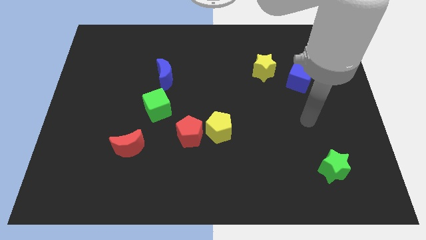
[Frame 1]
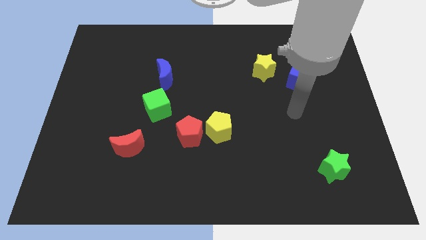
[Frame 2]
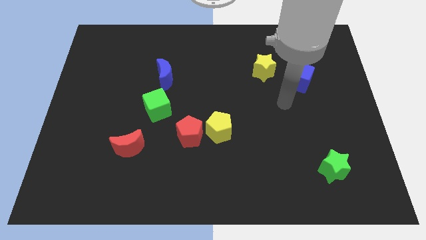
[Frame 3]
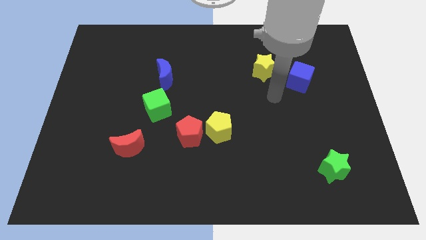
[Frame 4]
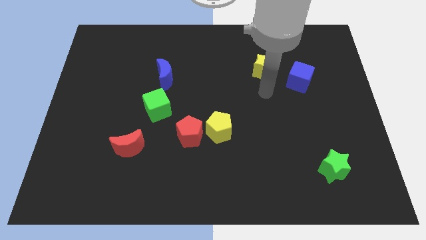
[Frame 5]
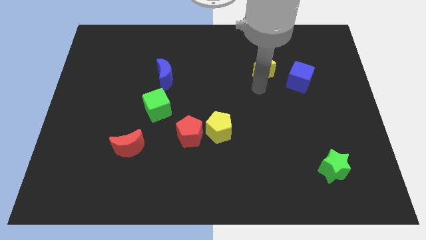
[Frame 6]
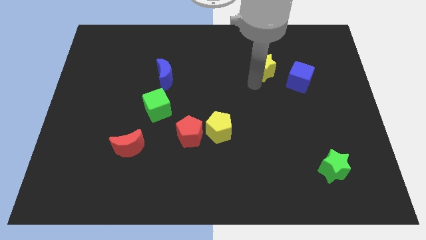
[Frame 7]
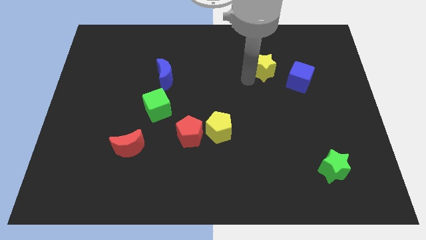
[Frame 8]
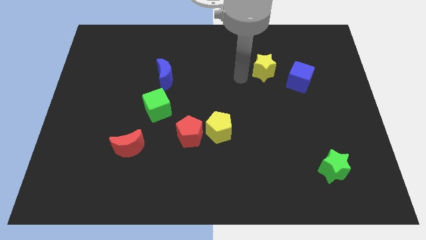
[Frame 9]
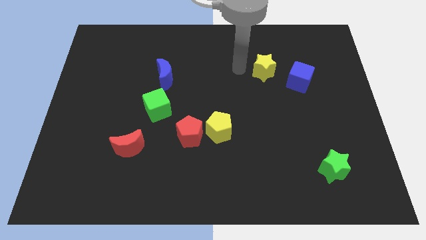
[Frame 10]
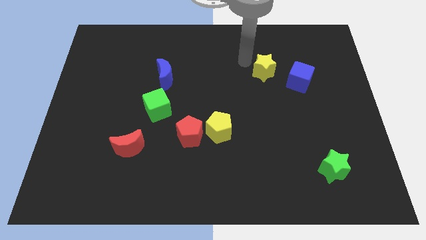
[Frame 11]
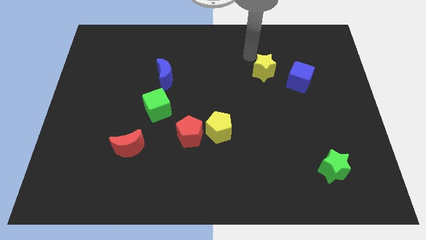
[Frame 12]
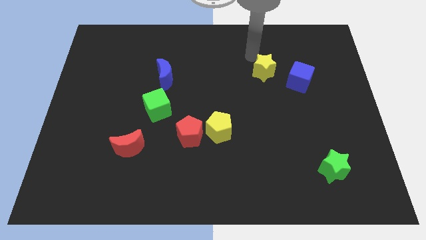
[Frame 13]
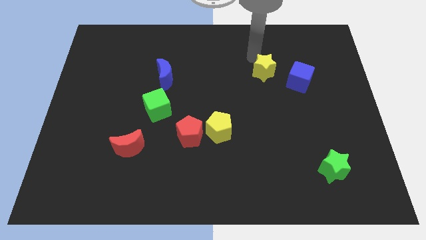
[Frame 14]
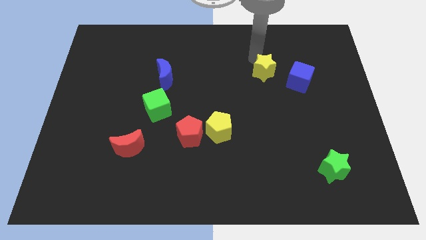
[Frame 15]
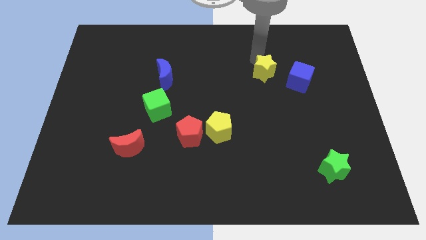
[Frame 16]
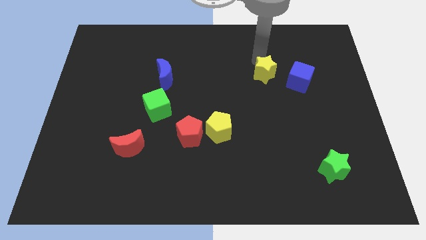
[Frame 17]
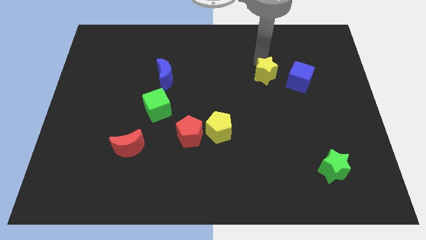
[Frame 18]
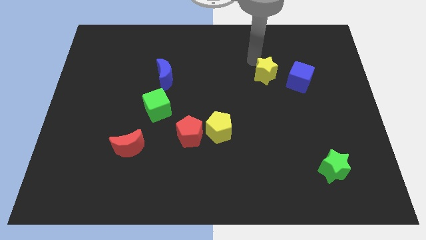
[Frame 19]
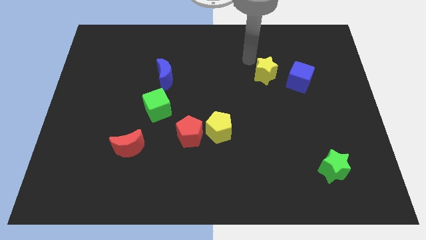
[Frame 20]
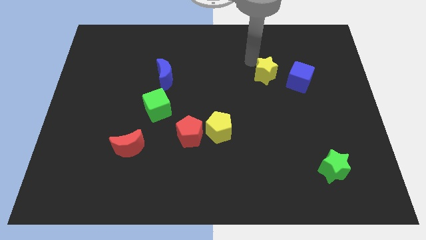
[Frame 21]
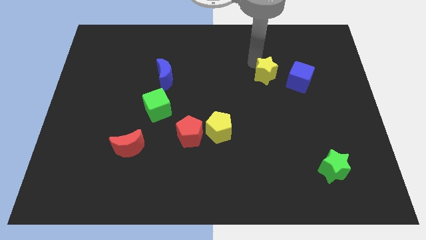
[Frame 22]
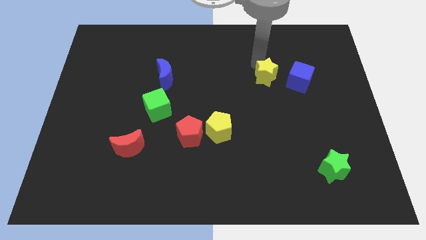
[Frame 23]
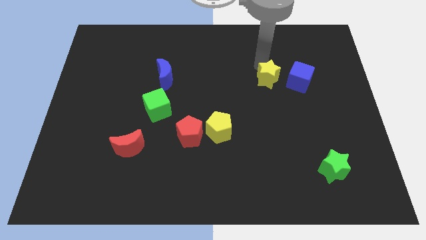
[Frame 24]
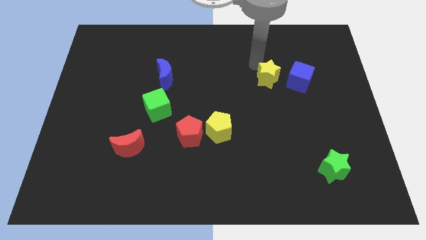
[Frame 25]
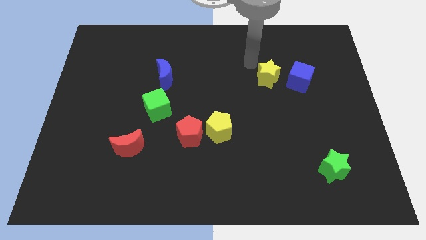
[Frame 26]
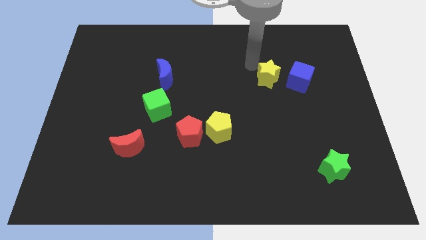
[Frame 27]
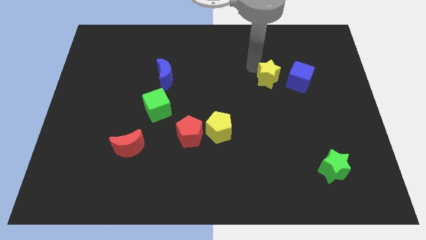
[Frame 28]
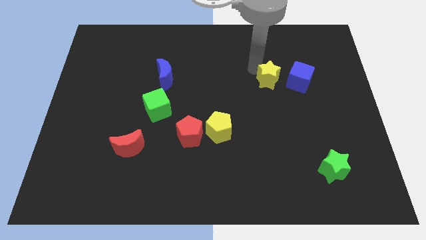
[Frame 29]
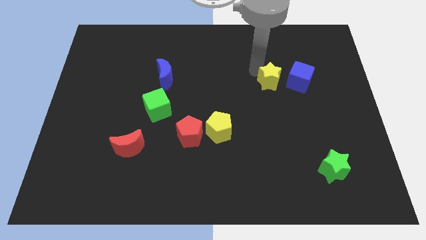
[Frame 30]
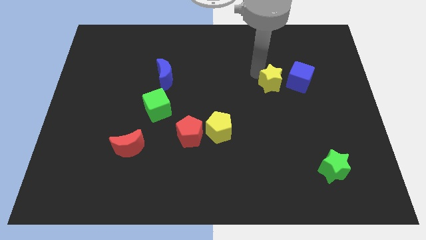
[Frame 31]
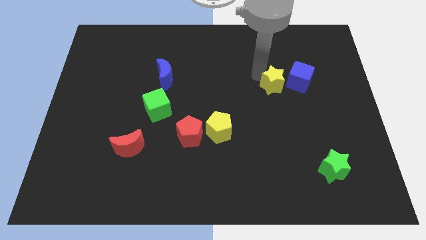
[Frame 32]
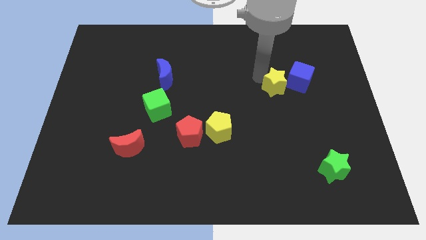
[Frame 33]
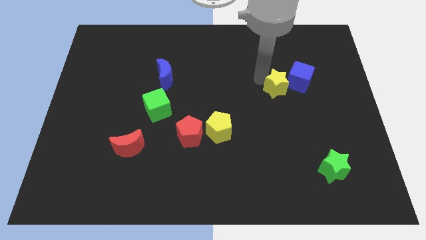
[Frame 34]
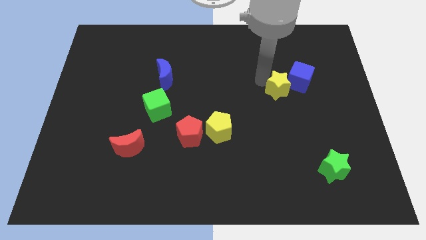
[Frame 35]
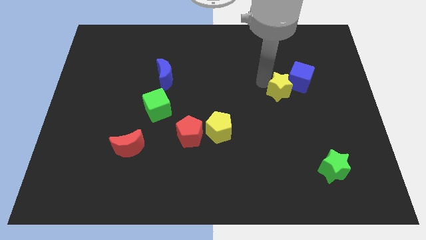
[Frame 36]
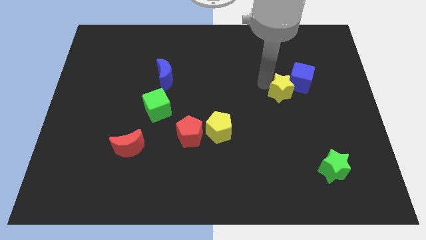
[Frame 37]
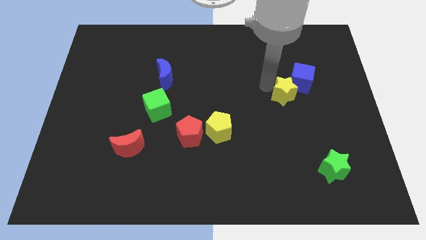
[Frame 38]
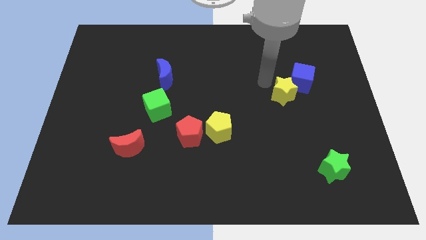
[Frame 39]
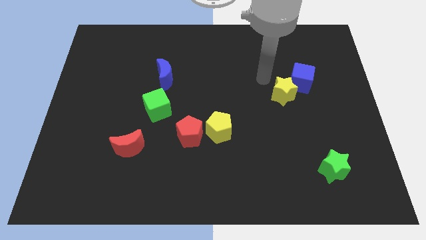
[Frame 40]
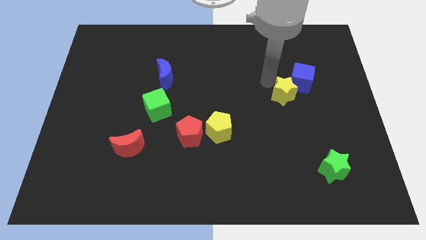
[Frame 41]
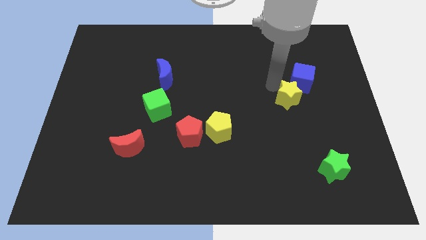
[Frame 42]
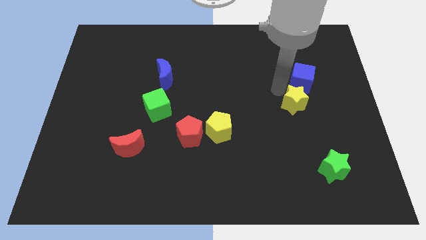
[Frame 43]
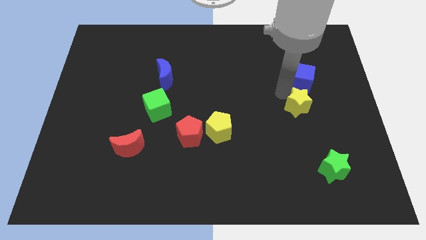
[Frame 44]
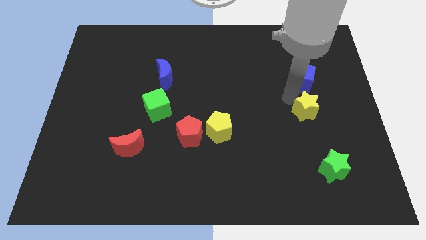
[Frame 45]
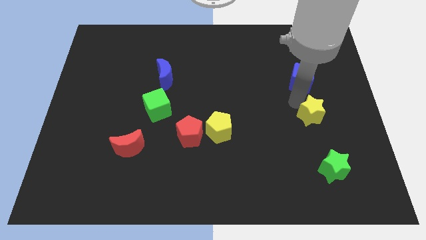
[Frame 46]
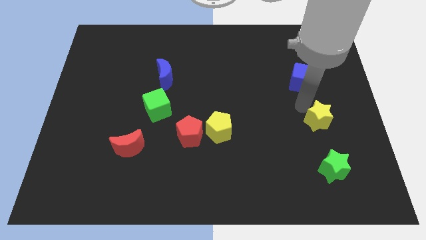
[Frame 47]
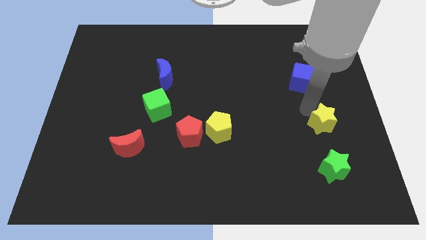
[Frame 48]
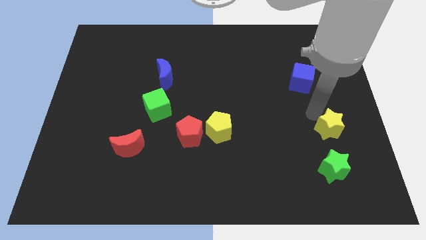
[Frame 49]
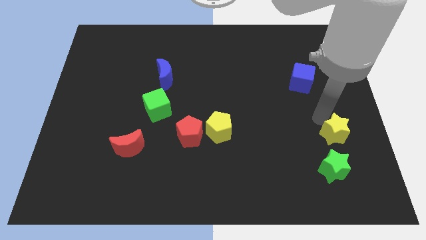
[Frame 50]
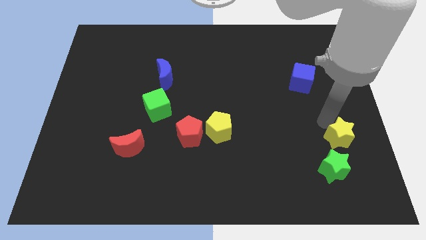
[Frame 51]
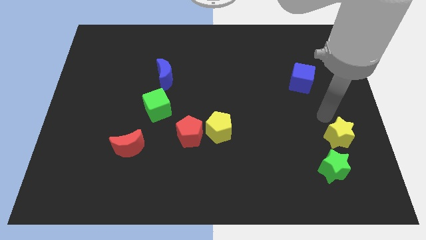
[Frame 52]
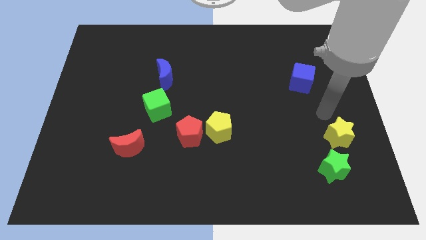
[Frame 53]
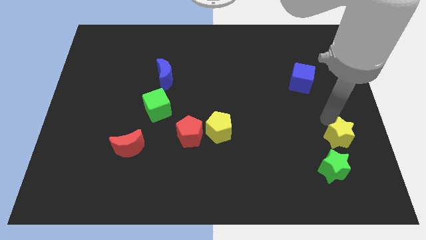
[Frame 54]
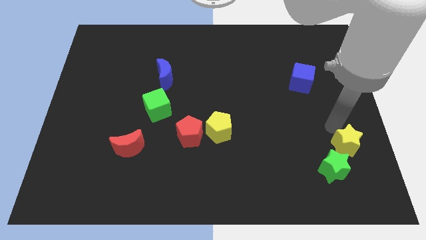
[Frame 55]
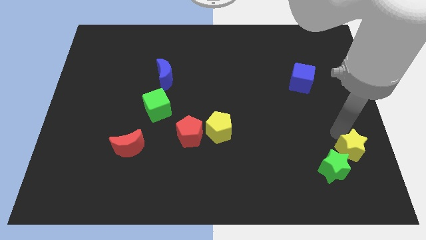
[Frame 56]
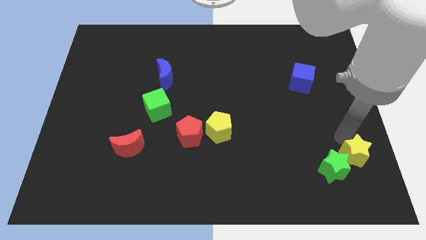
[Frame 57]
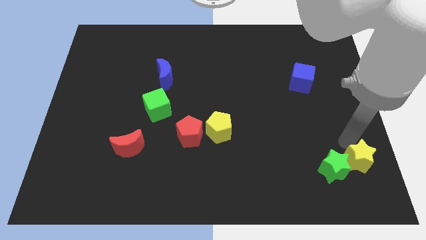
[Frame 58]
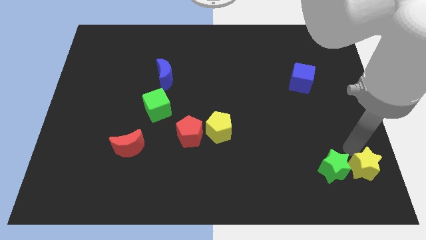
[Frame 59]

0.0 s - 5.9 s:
put the yellow star to the bottom right of the board
